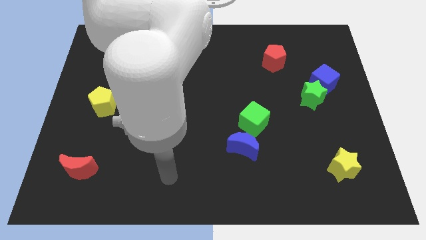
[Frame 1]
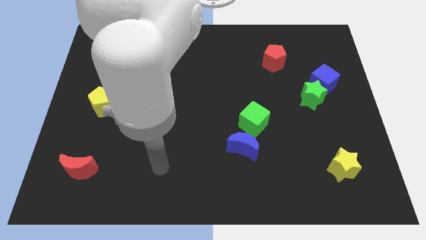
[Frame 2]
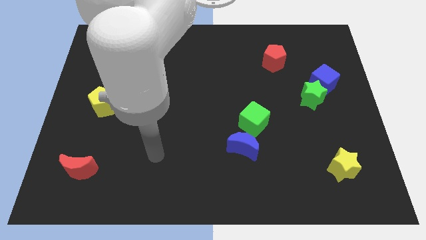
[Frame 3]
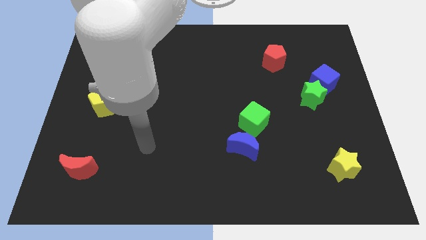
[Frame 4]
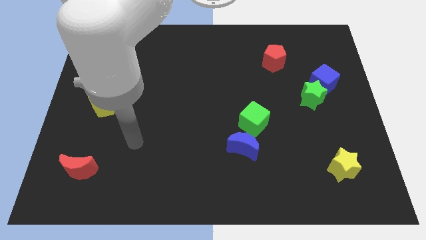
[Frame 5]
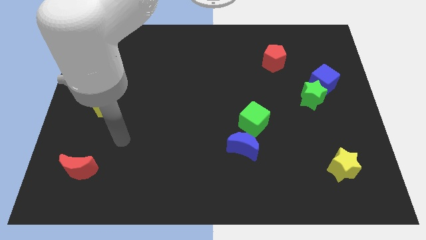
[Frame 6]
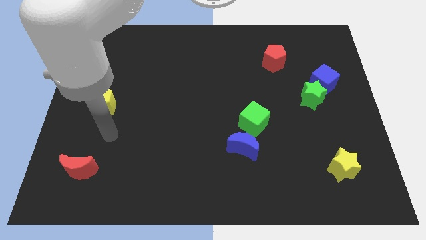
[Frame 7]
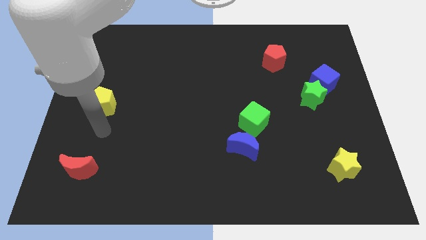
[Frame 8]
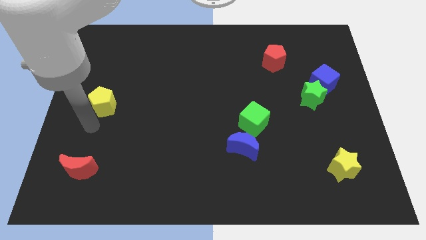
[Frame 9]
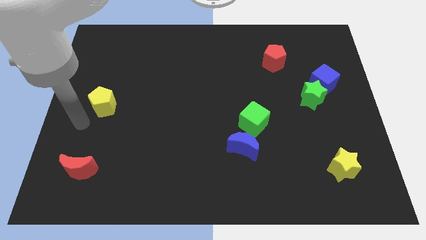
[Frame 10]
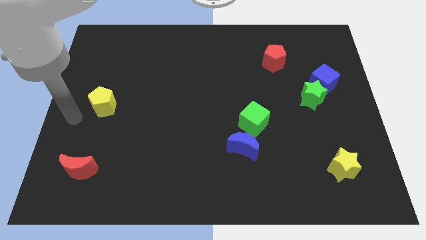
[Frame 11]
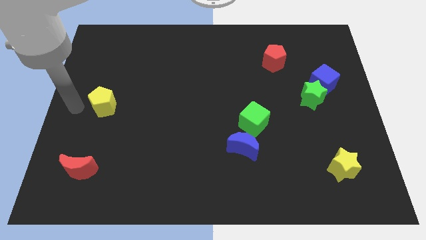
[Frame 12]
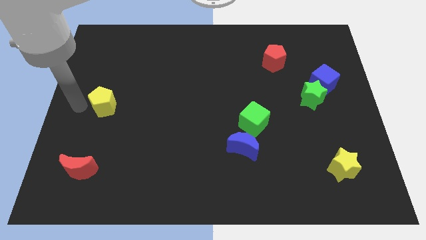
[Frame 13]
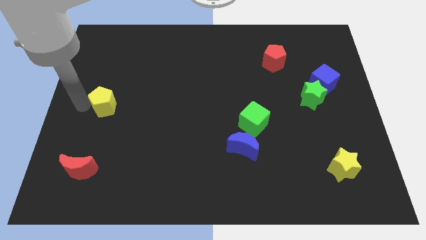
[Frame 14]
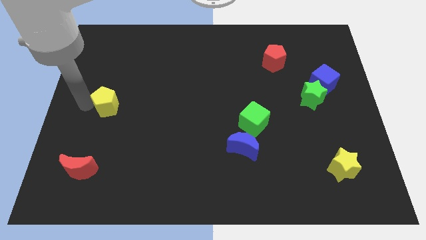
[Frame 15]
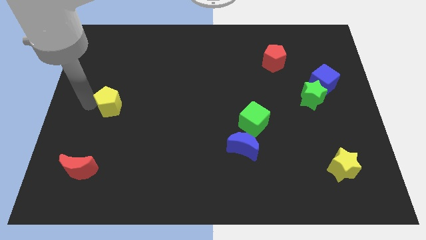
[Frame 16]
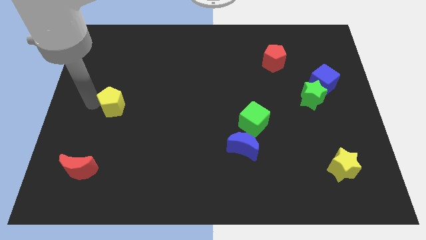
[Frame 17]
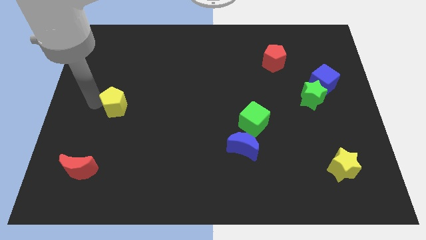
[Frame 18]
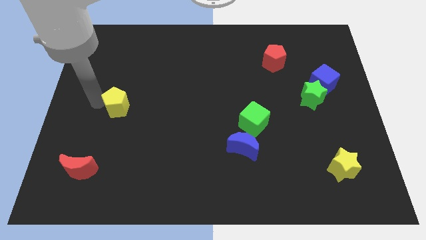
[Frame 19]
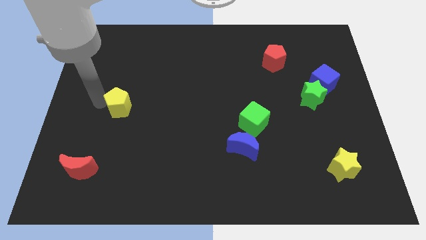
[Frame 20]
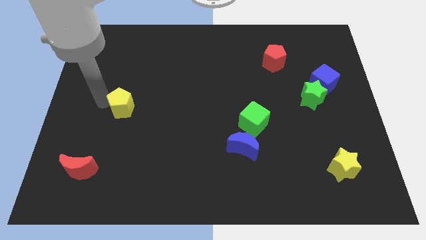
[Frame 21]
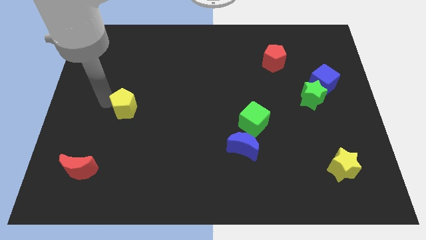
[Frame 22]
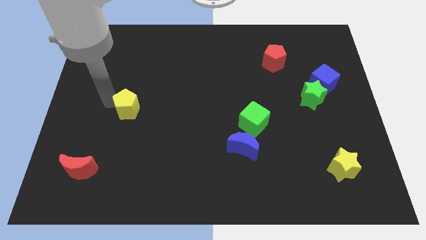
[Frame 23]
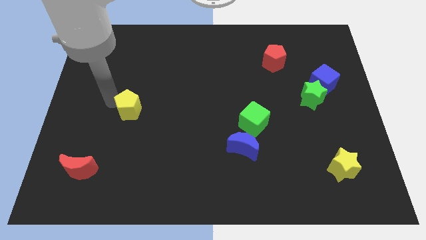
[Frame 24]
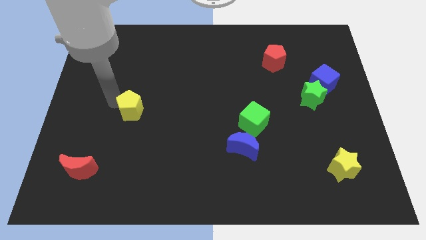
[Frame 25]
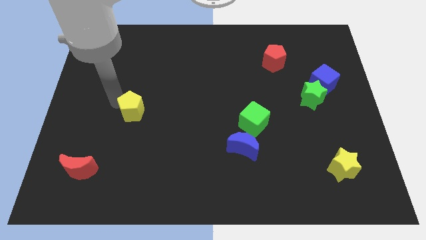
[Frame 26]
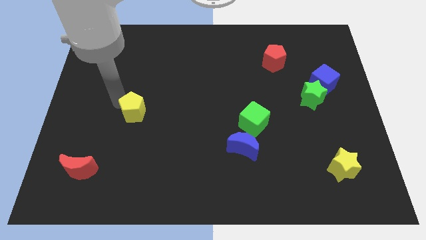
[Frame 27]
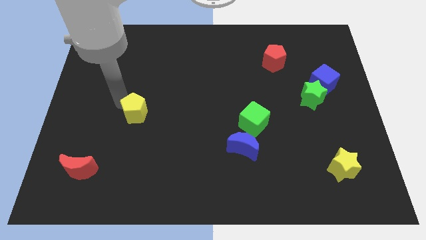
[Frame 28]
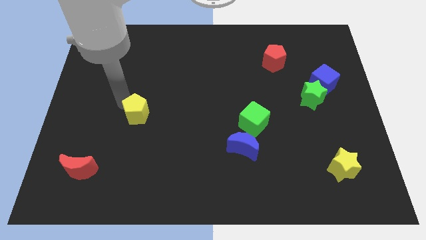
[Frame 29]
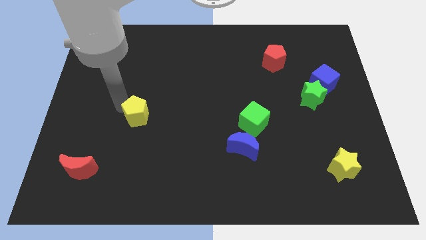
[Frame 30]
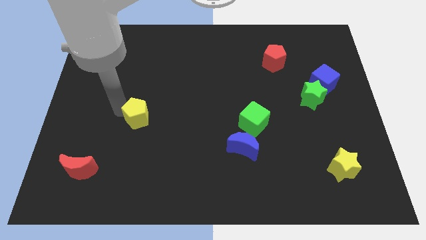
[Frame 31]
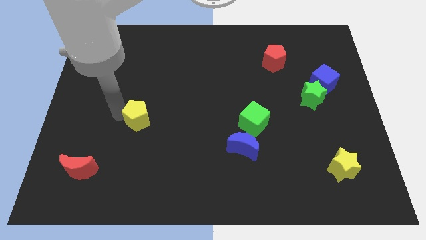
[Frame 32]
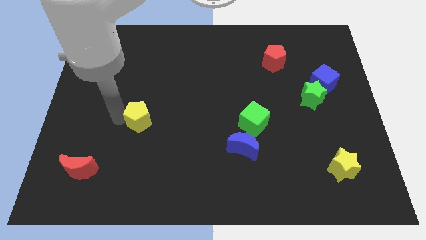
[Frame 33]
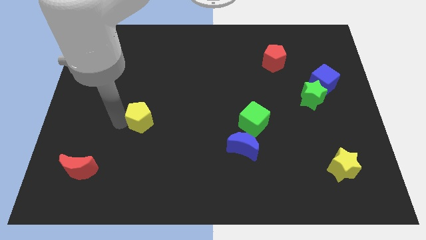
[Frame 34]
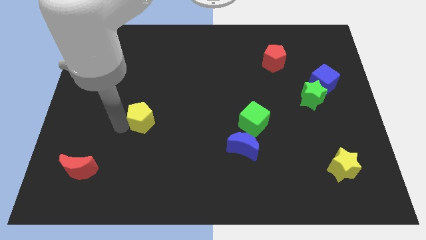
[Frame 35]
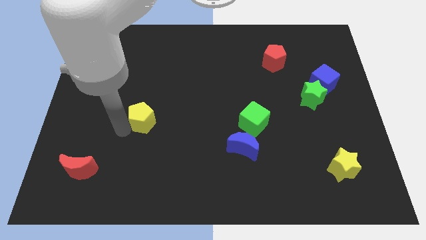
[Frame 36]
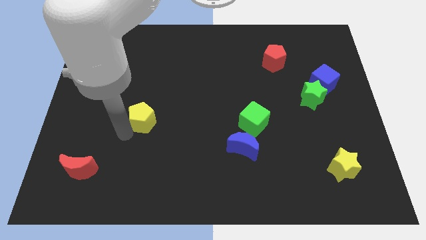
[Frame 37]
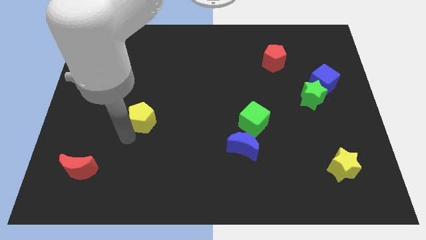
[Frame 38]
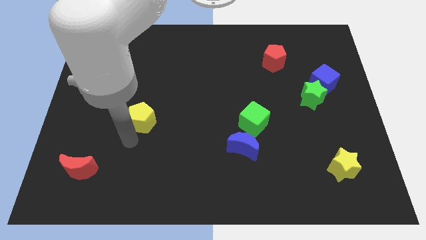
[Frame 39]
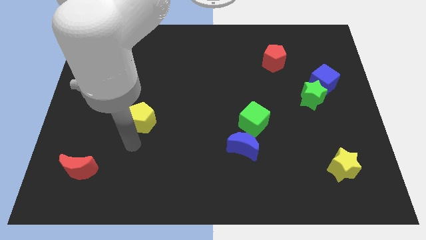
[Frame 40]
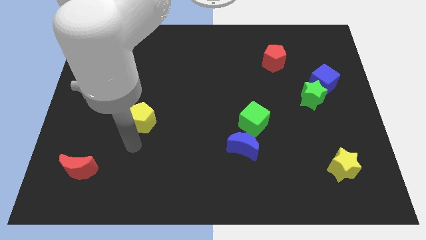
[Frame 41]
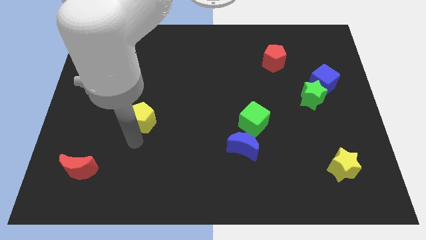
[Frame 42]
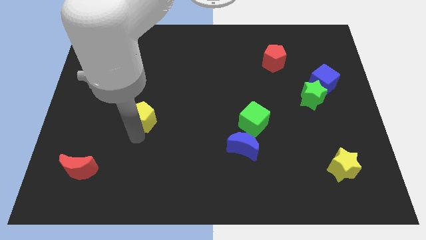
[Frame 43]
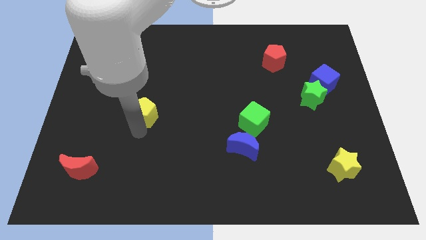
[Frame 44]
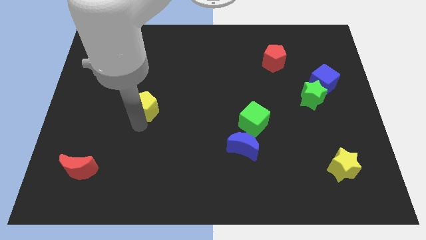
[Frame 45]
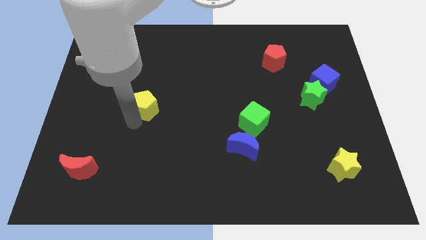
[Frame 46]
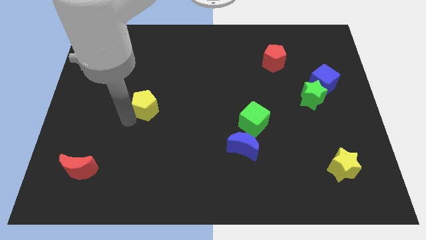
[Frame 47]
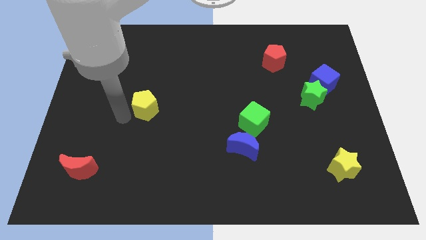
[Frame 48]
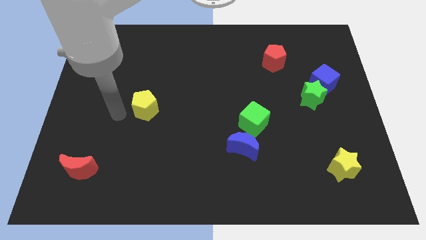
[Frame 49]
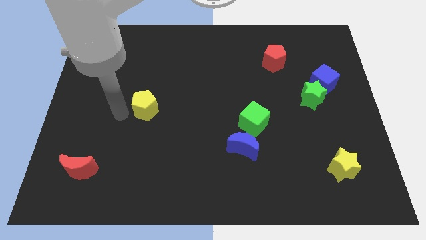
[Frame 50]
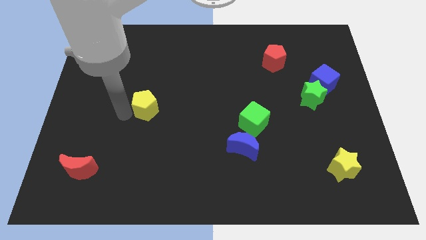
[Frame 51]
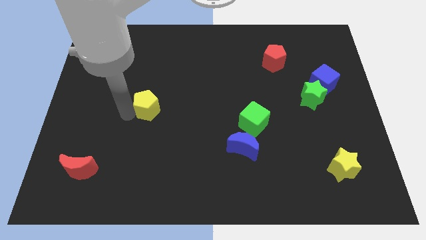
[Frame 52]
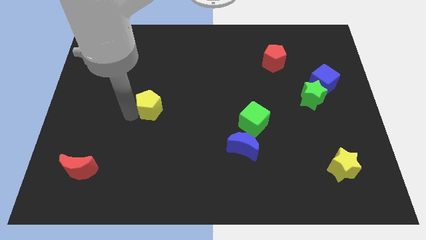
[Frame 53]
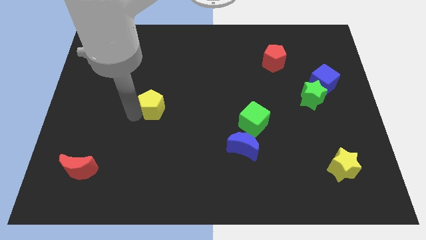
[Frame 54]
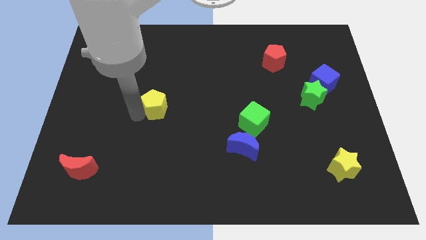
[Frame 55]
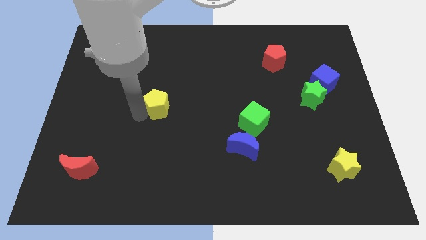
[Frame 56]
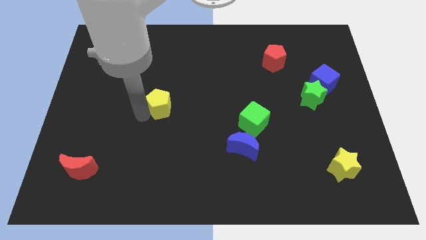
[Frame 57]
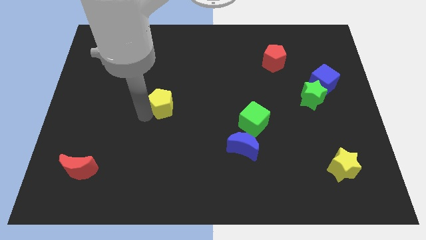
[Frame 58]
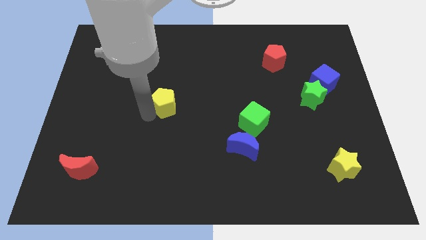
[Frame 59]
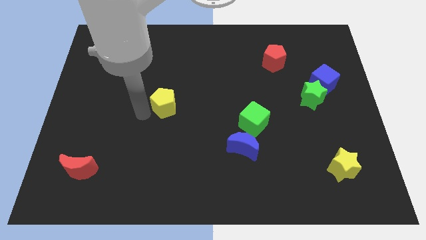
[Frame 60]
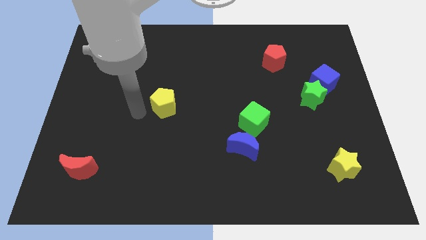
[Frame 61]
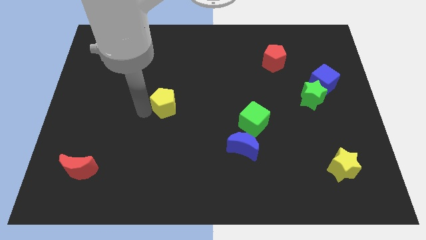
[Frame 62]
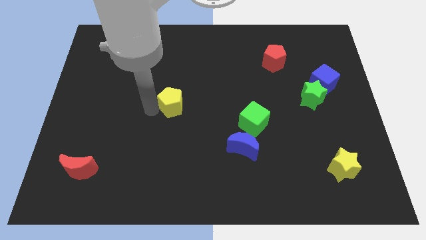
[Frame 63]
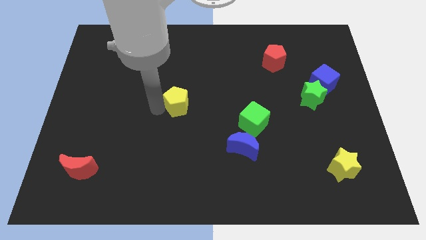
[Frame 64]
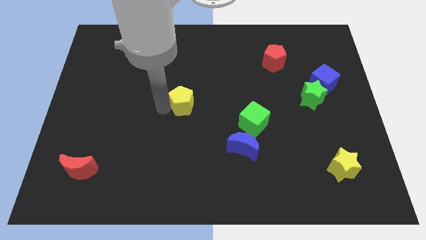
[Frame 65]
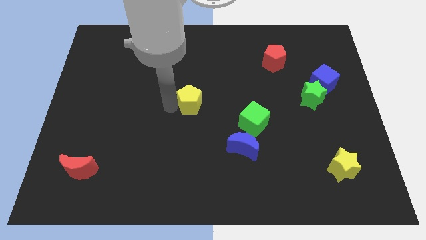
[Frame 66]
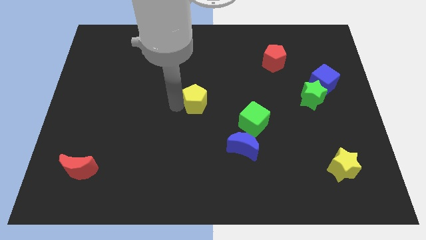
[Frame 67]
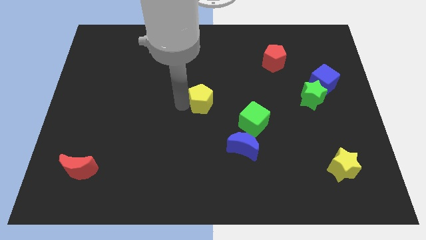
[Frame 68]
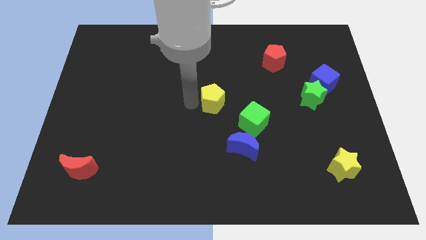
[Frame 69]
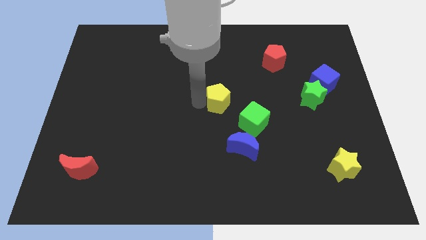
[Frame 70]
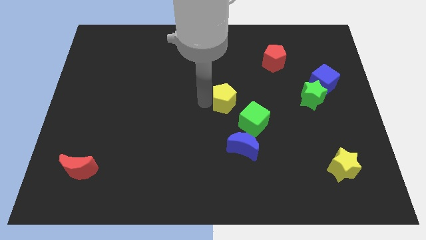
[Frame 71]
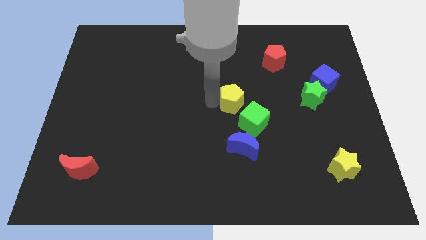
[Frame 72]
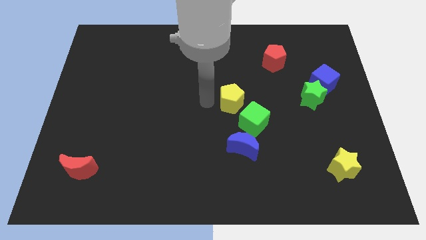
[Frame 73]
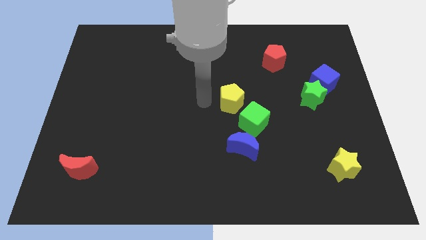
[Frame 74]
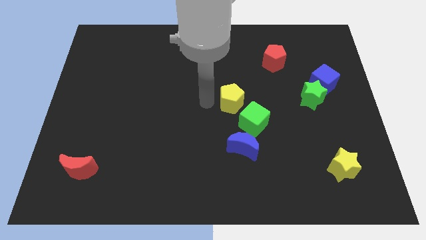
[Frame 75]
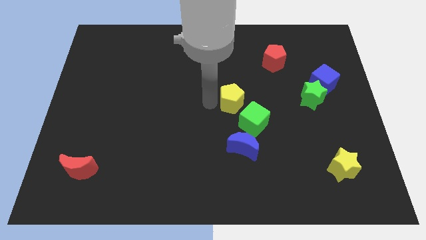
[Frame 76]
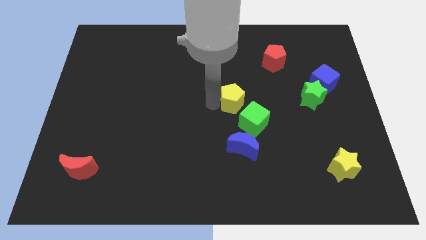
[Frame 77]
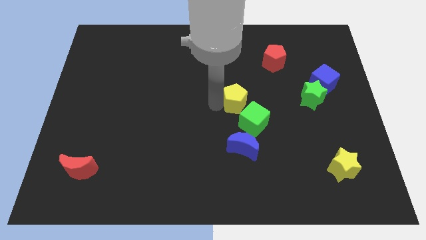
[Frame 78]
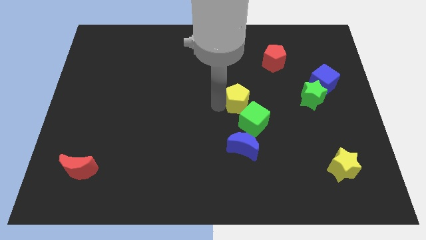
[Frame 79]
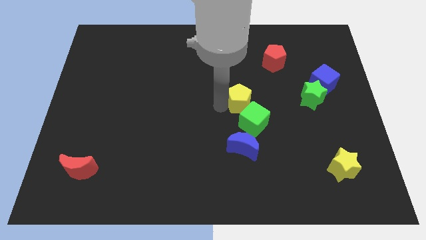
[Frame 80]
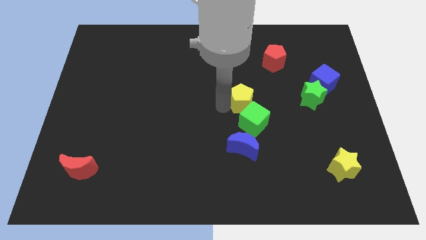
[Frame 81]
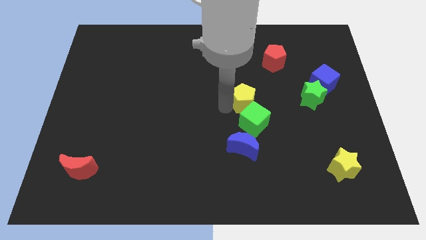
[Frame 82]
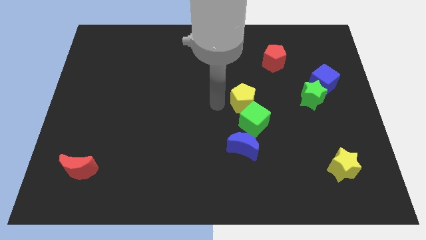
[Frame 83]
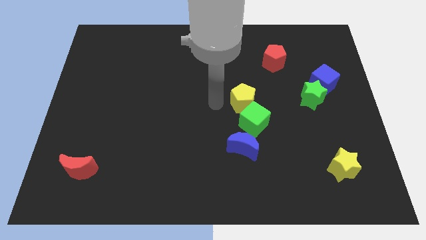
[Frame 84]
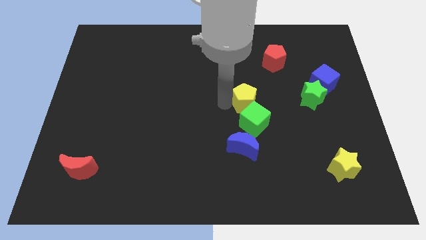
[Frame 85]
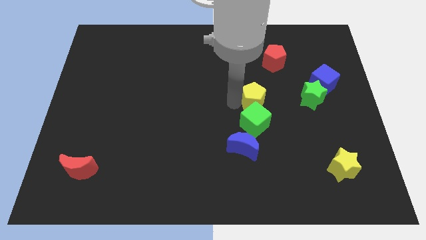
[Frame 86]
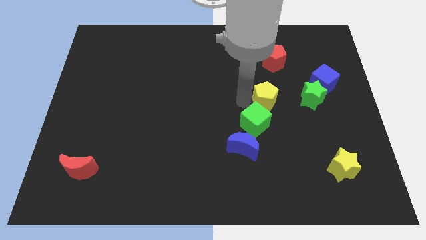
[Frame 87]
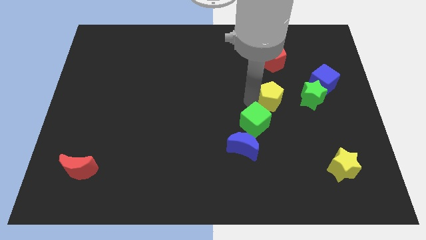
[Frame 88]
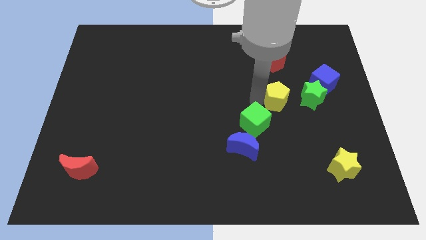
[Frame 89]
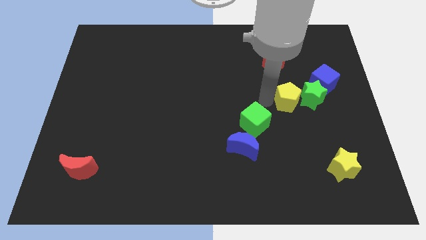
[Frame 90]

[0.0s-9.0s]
push the yellow pentagon next to the green star
